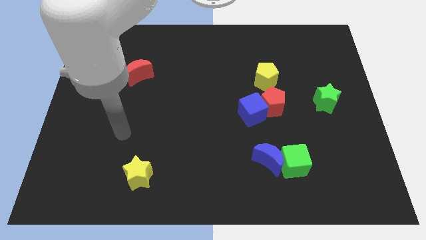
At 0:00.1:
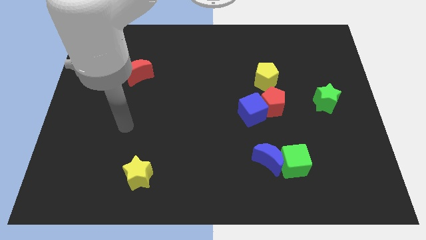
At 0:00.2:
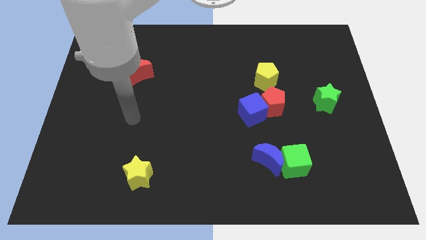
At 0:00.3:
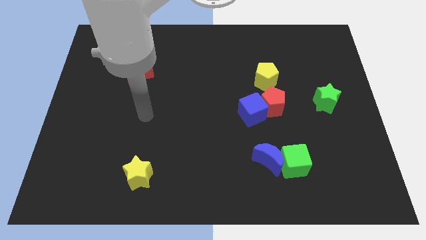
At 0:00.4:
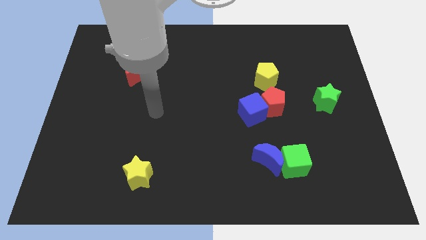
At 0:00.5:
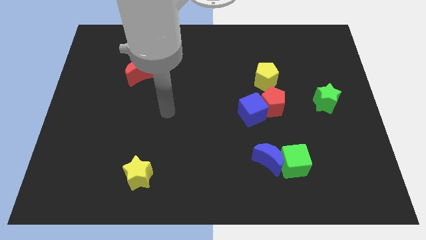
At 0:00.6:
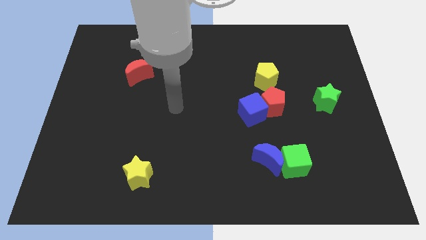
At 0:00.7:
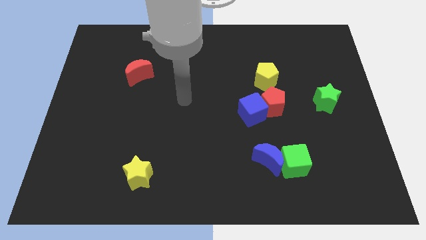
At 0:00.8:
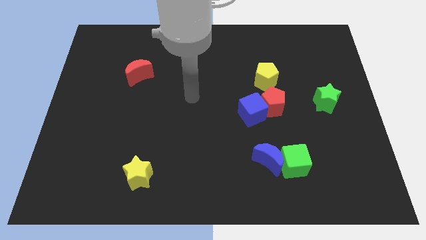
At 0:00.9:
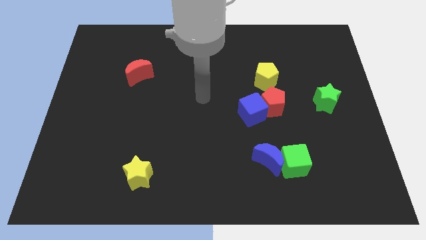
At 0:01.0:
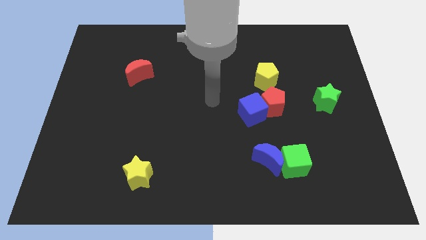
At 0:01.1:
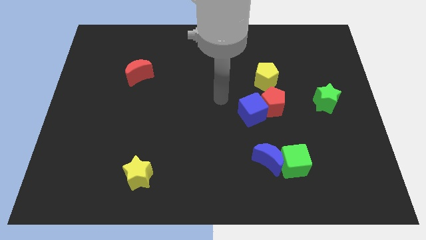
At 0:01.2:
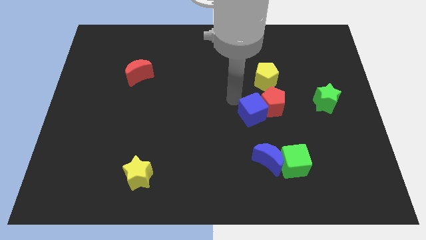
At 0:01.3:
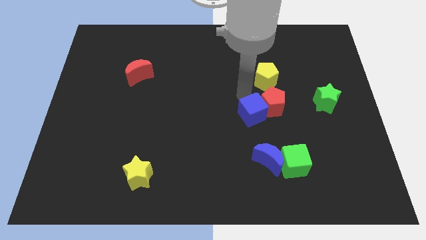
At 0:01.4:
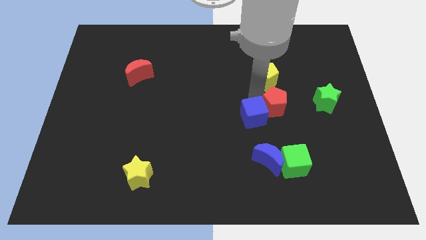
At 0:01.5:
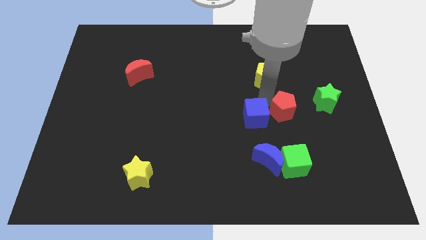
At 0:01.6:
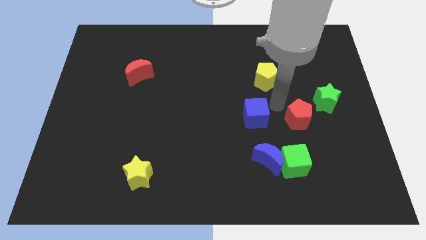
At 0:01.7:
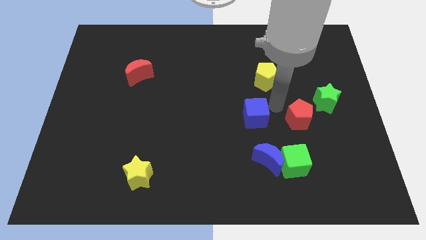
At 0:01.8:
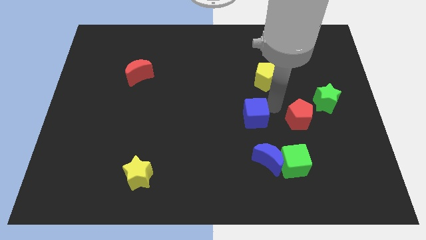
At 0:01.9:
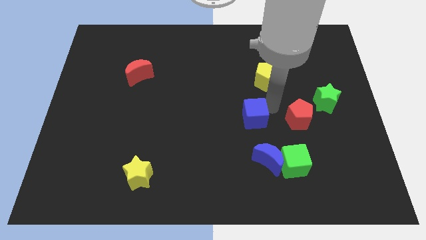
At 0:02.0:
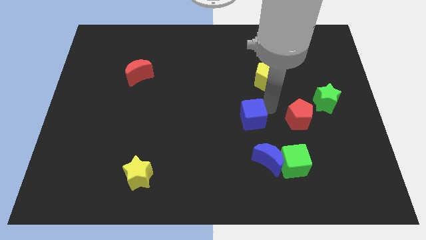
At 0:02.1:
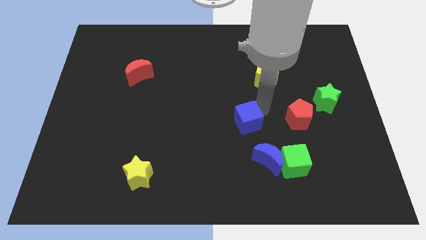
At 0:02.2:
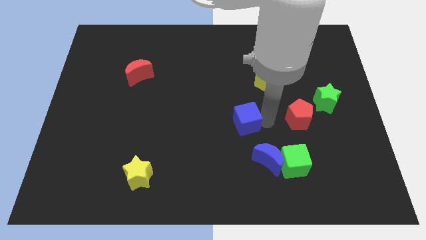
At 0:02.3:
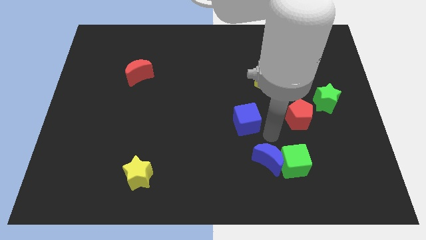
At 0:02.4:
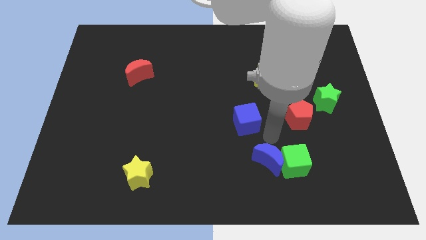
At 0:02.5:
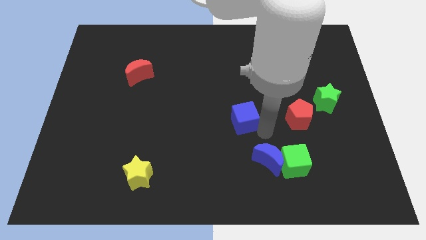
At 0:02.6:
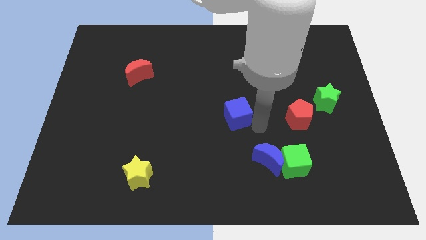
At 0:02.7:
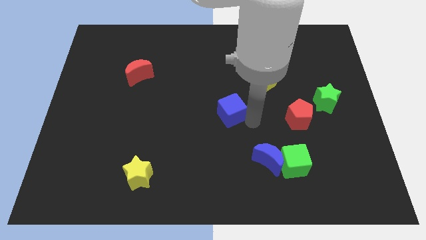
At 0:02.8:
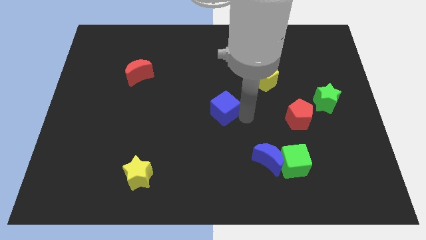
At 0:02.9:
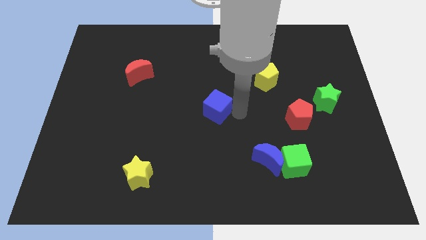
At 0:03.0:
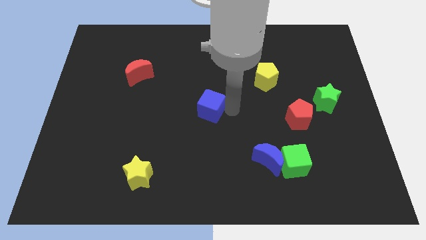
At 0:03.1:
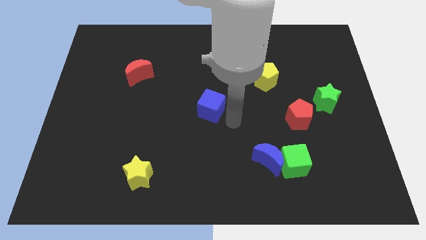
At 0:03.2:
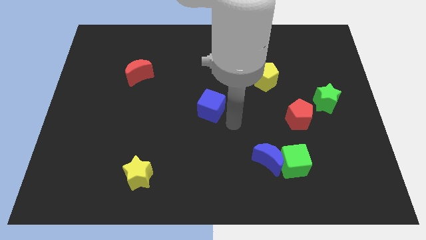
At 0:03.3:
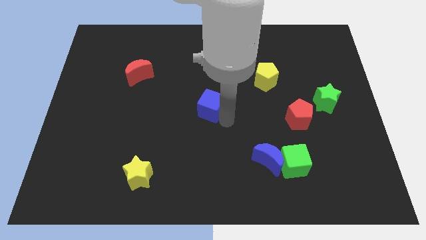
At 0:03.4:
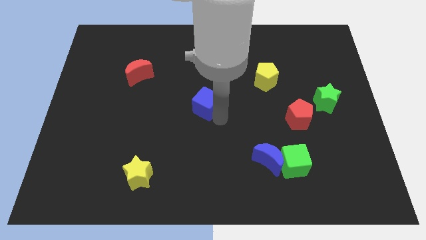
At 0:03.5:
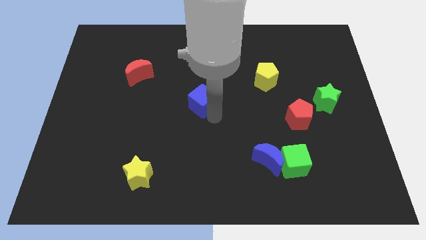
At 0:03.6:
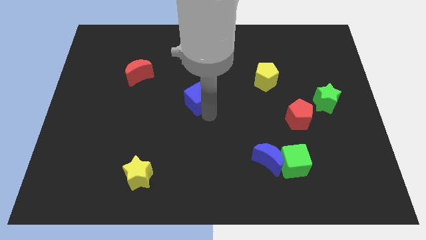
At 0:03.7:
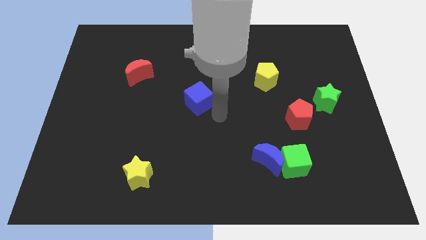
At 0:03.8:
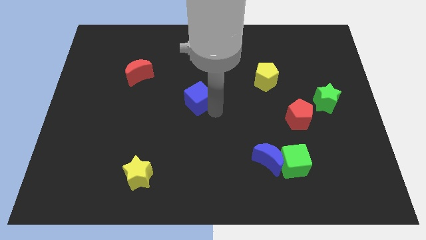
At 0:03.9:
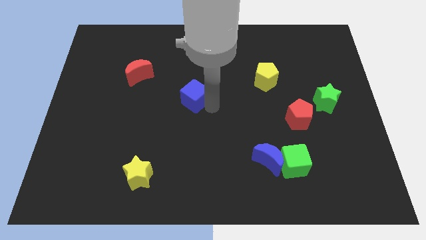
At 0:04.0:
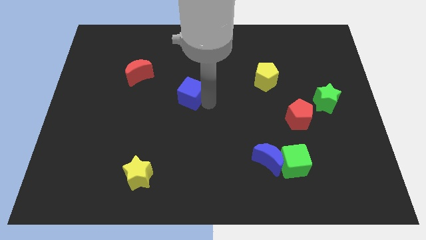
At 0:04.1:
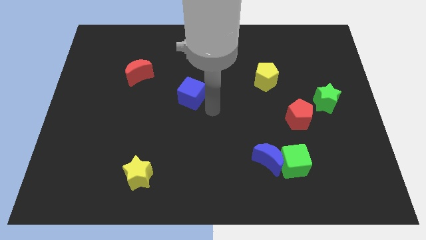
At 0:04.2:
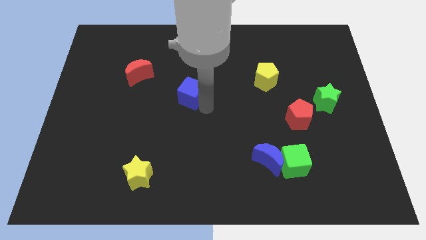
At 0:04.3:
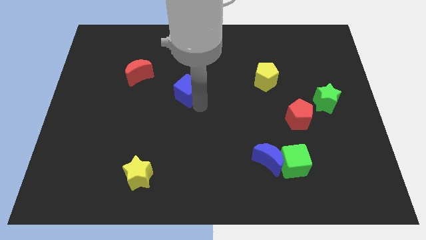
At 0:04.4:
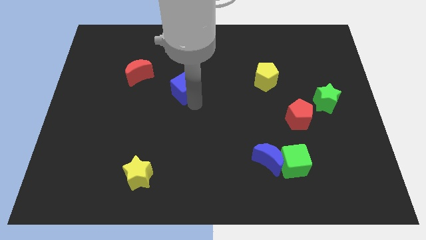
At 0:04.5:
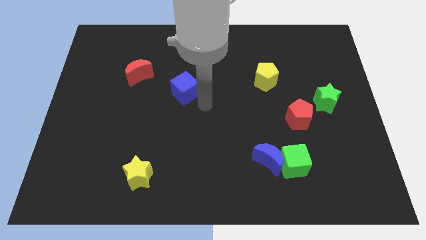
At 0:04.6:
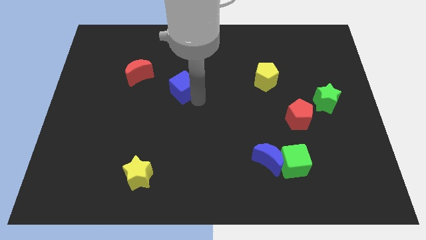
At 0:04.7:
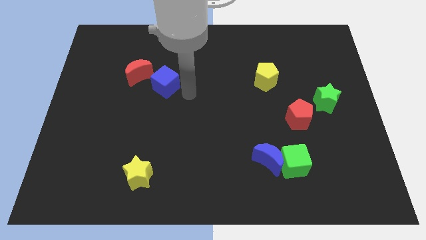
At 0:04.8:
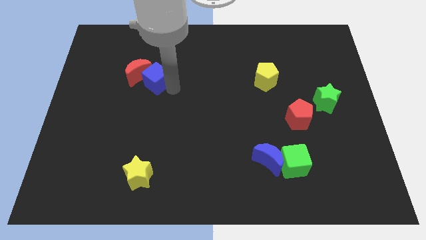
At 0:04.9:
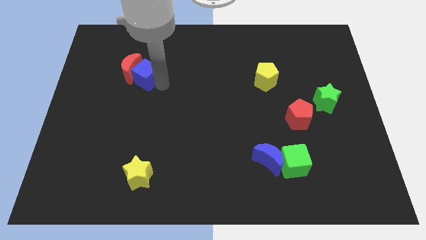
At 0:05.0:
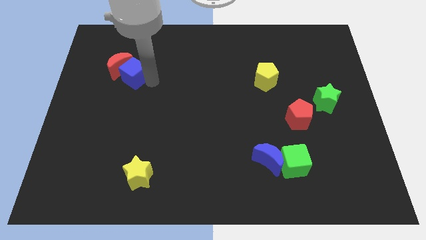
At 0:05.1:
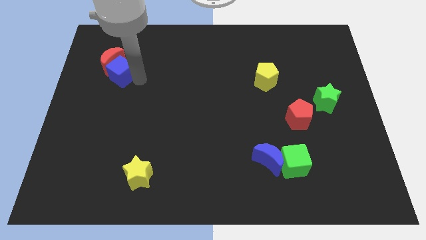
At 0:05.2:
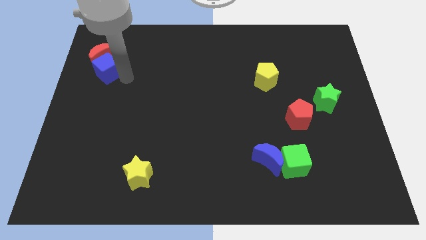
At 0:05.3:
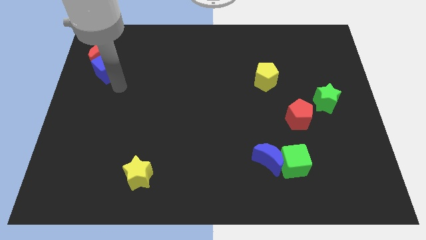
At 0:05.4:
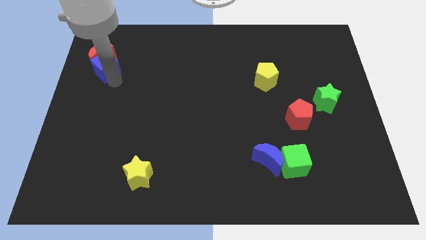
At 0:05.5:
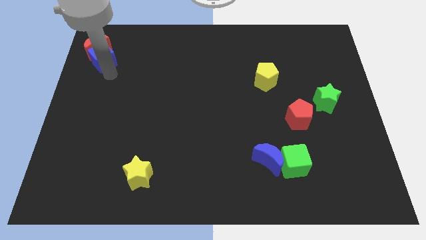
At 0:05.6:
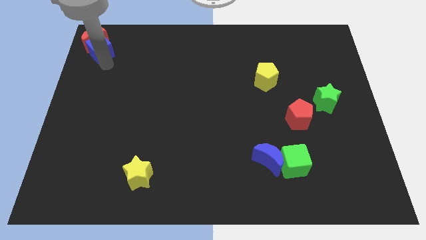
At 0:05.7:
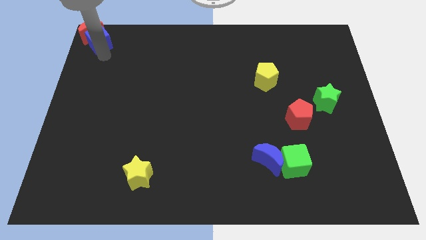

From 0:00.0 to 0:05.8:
move the blue cube to the top left corner
